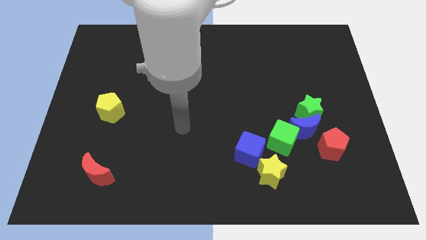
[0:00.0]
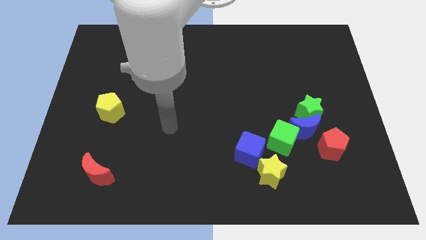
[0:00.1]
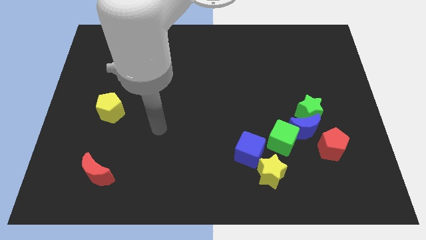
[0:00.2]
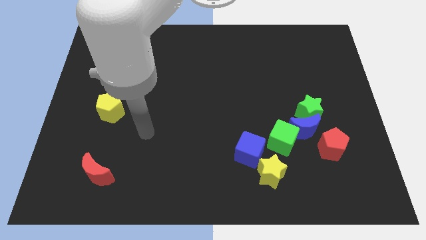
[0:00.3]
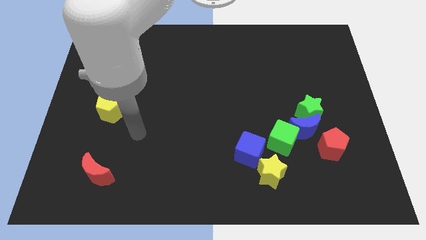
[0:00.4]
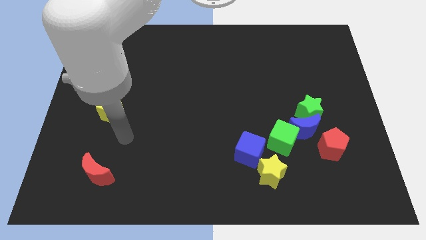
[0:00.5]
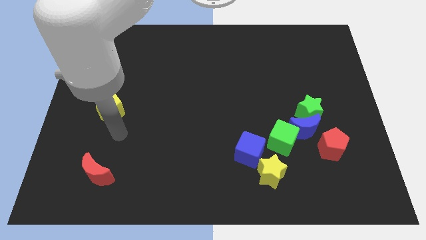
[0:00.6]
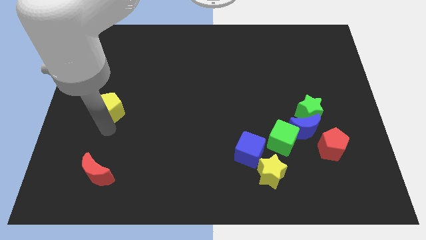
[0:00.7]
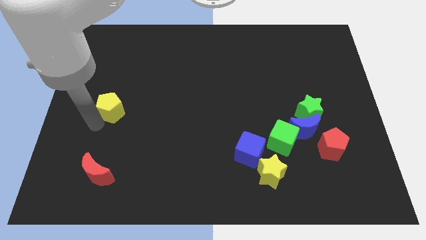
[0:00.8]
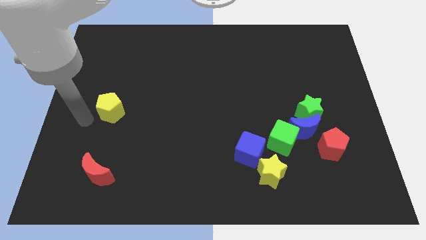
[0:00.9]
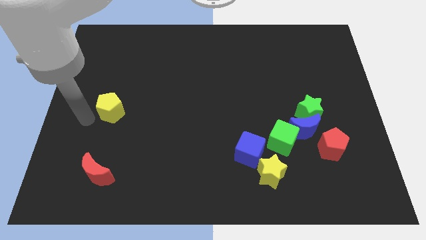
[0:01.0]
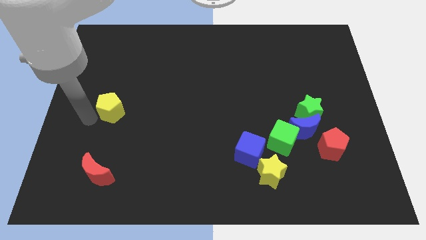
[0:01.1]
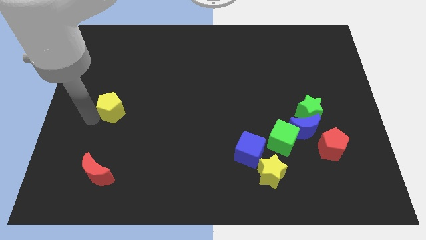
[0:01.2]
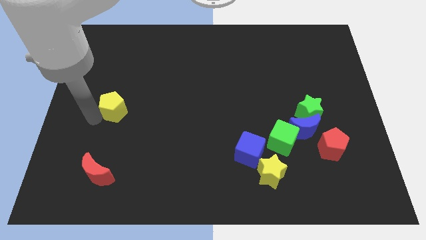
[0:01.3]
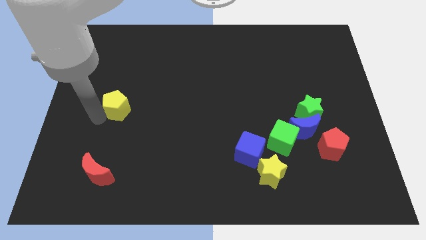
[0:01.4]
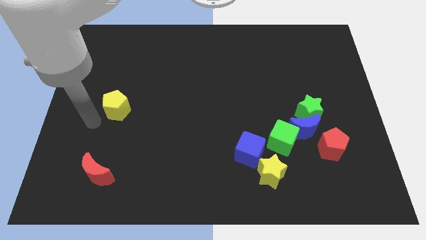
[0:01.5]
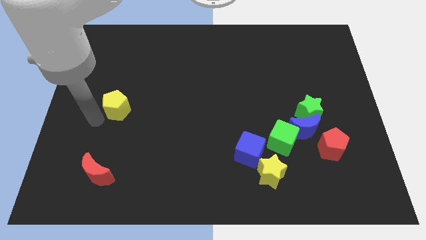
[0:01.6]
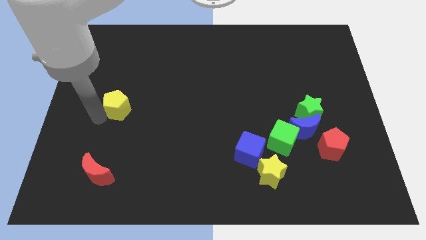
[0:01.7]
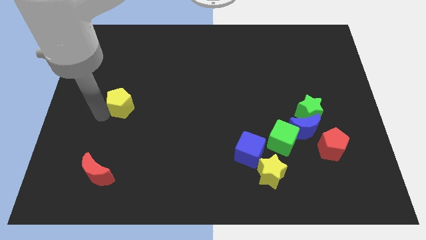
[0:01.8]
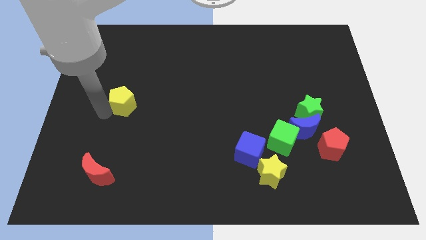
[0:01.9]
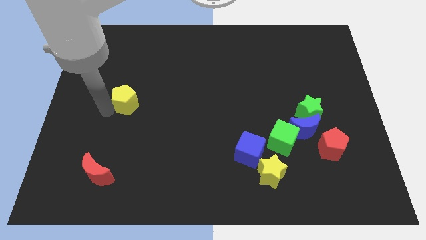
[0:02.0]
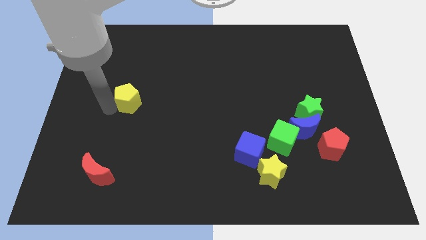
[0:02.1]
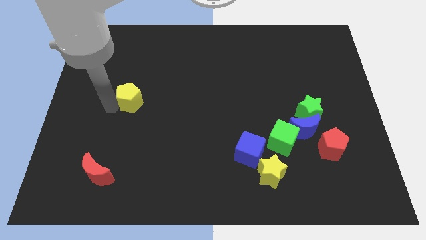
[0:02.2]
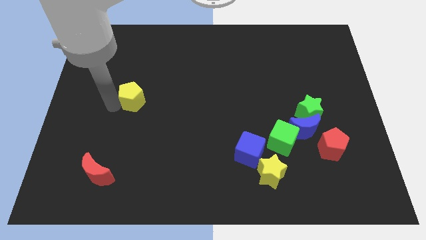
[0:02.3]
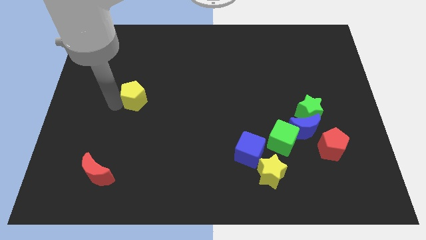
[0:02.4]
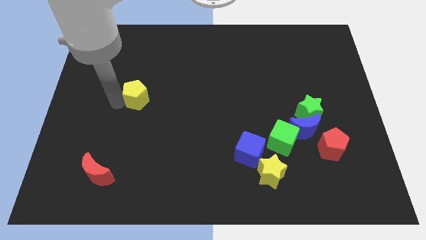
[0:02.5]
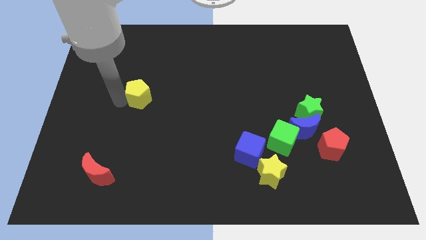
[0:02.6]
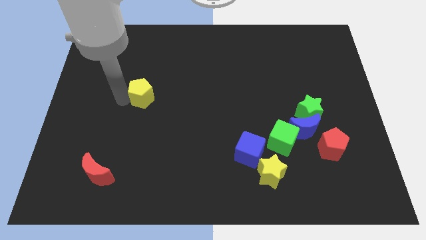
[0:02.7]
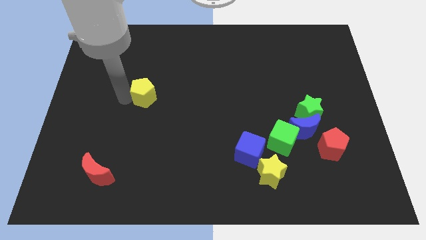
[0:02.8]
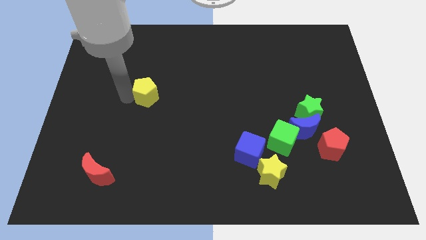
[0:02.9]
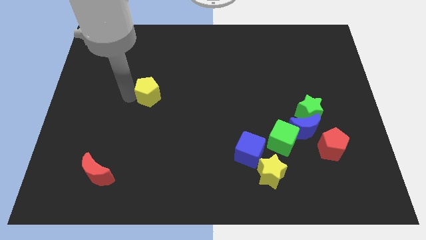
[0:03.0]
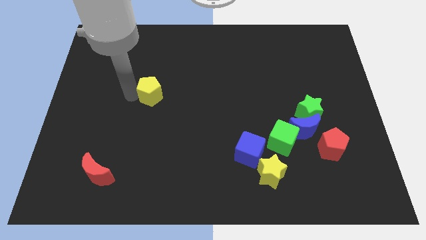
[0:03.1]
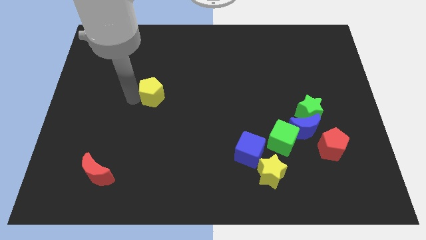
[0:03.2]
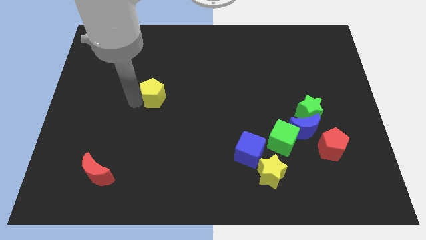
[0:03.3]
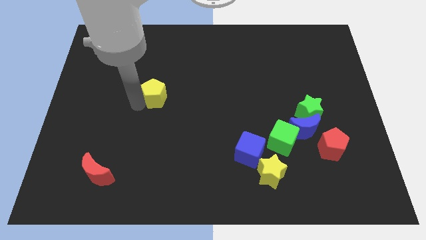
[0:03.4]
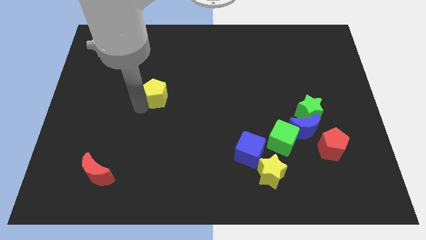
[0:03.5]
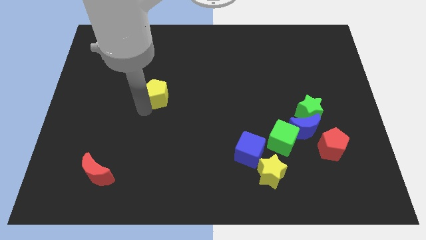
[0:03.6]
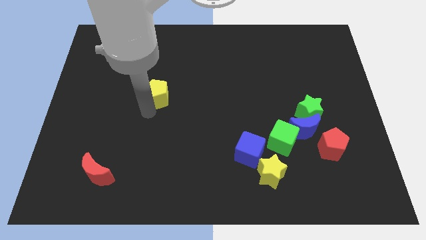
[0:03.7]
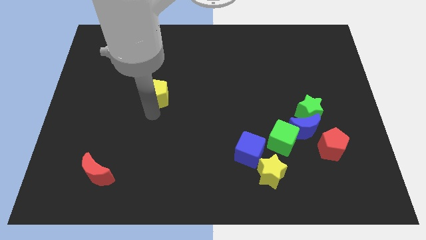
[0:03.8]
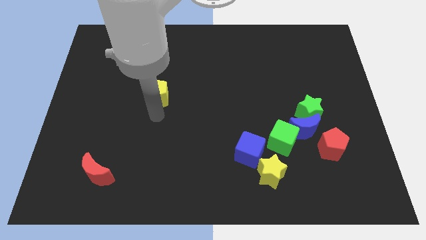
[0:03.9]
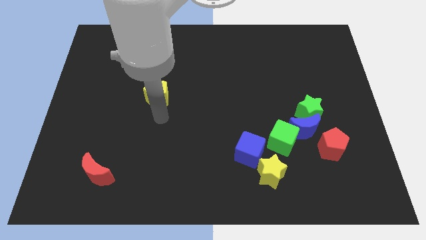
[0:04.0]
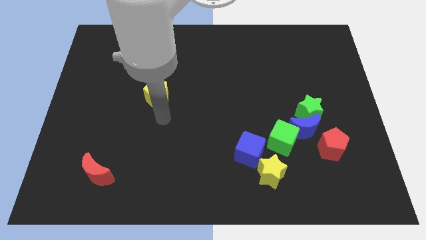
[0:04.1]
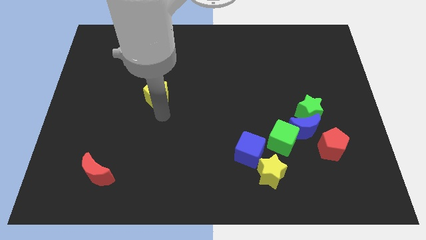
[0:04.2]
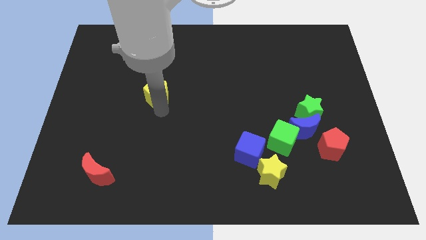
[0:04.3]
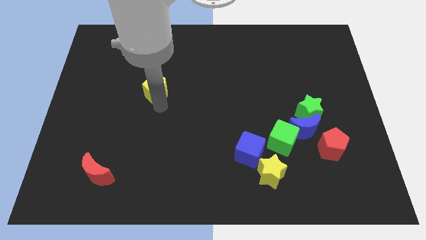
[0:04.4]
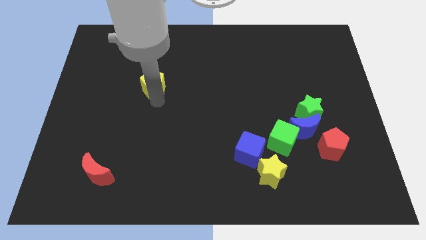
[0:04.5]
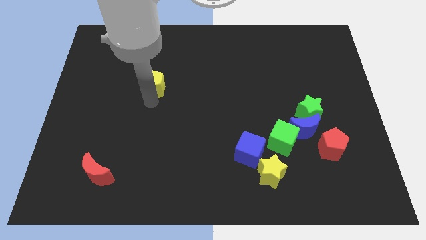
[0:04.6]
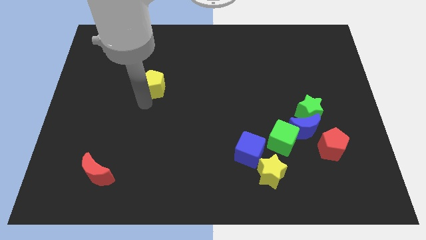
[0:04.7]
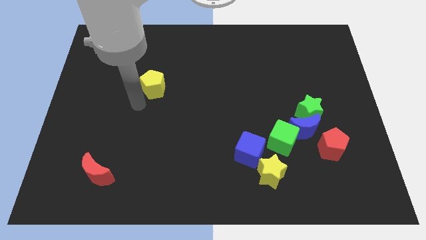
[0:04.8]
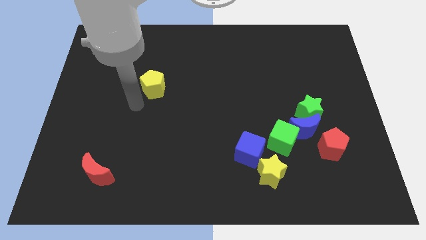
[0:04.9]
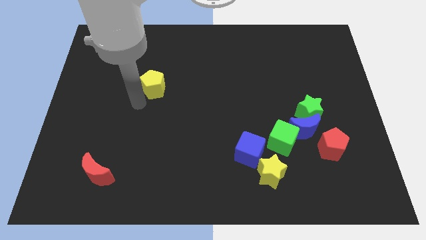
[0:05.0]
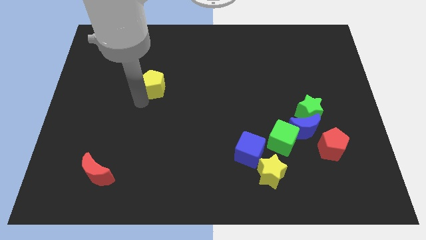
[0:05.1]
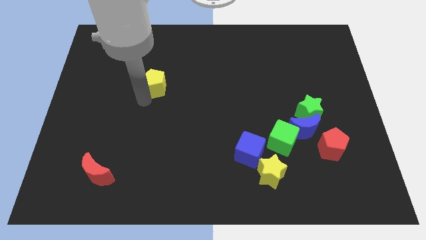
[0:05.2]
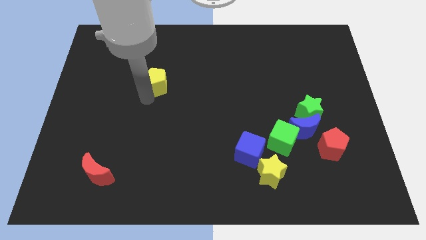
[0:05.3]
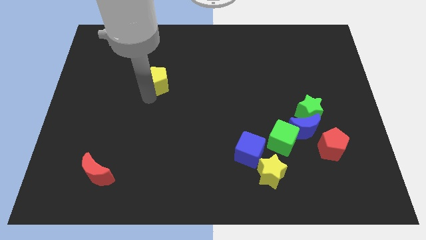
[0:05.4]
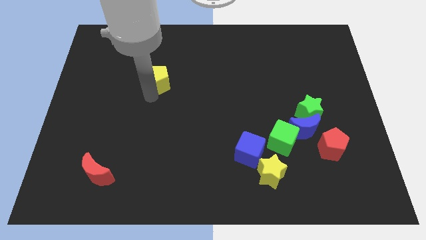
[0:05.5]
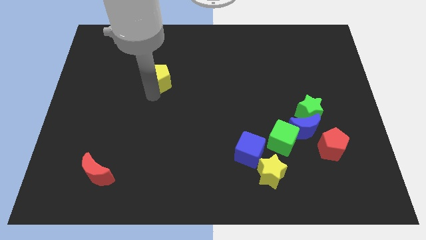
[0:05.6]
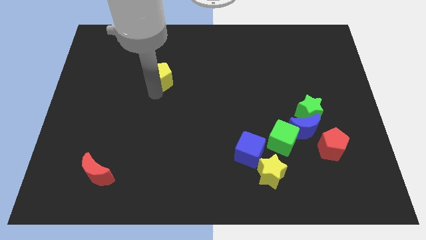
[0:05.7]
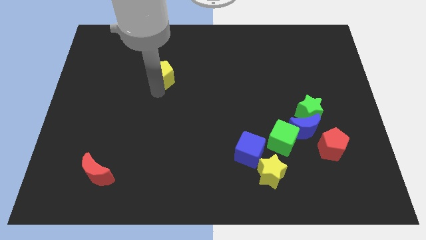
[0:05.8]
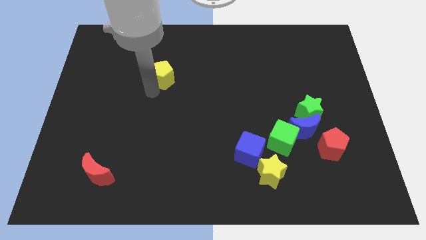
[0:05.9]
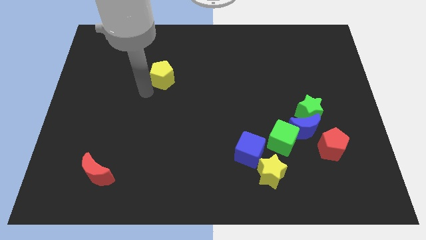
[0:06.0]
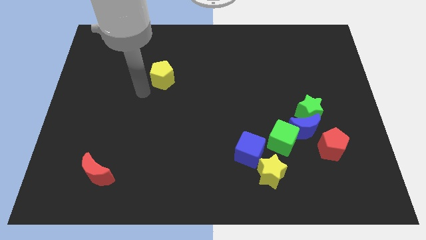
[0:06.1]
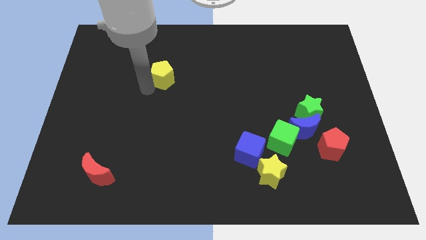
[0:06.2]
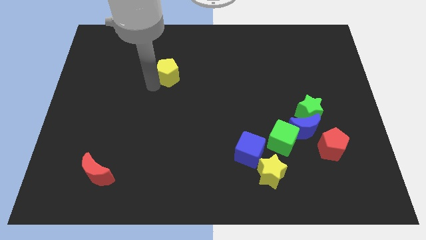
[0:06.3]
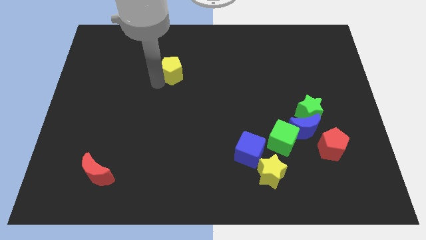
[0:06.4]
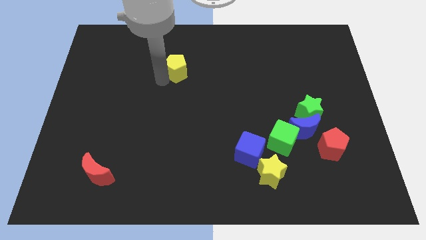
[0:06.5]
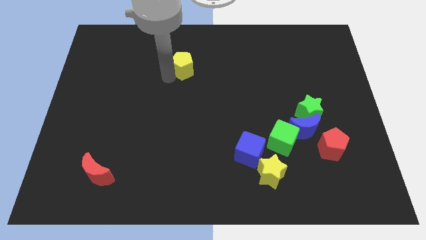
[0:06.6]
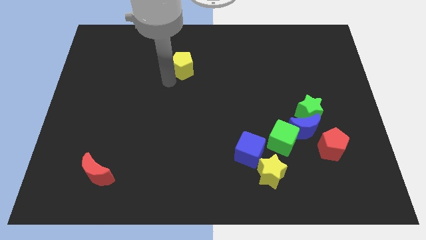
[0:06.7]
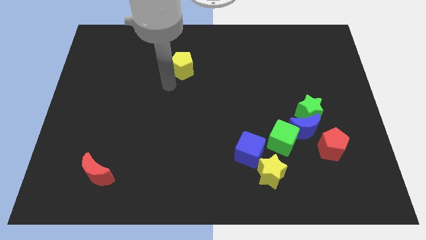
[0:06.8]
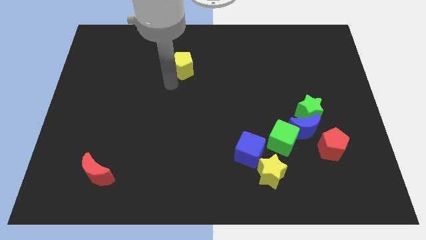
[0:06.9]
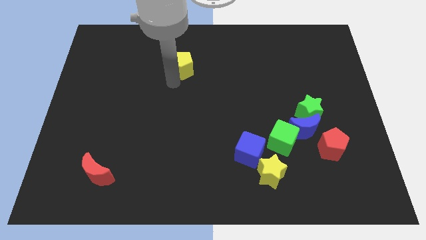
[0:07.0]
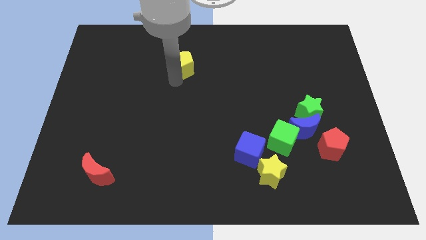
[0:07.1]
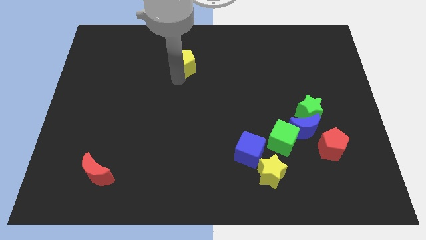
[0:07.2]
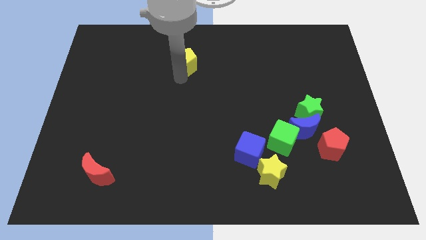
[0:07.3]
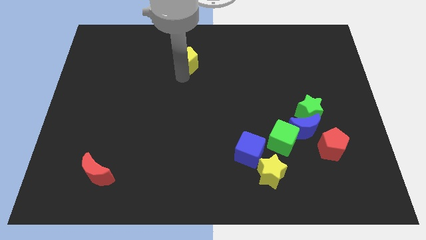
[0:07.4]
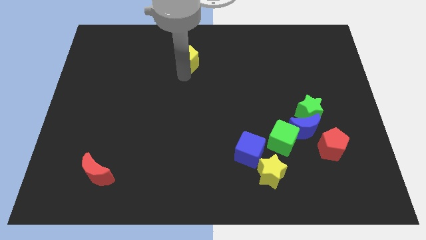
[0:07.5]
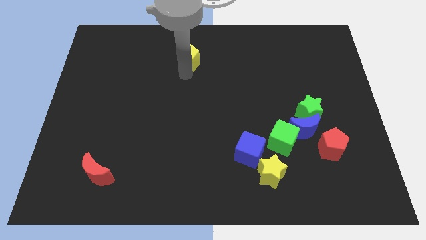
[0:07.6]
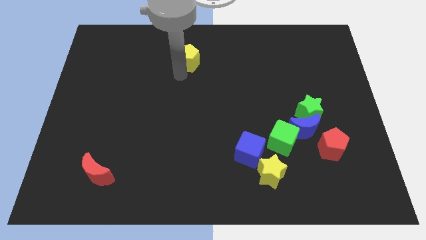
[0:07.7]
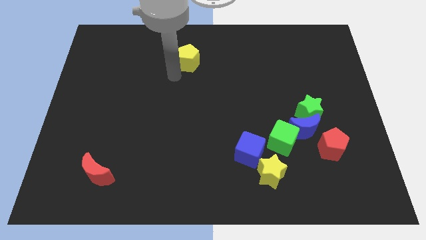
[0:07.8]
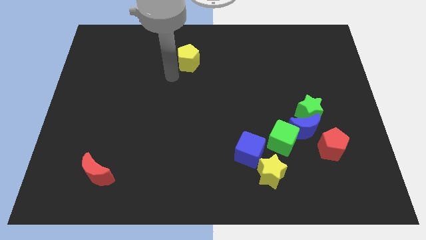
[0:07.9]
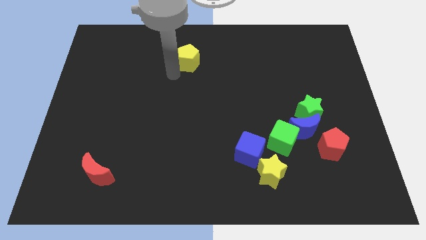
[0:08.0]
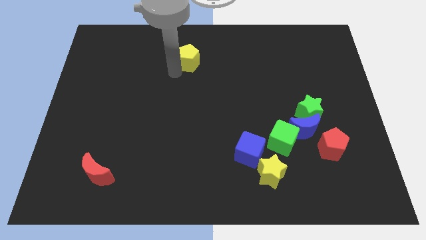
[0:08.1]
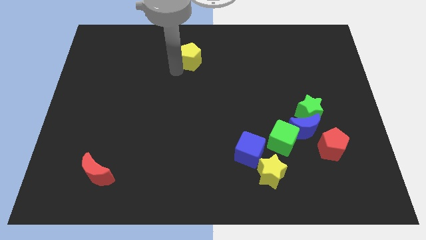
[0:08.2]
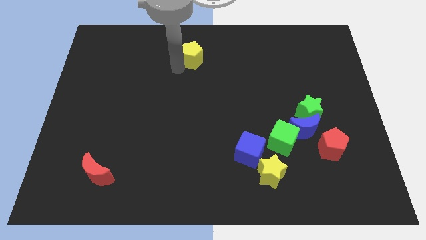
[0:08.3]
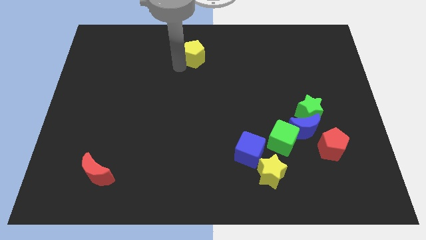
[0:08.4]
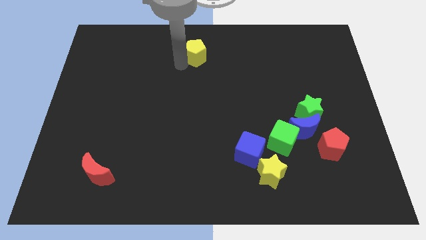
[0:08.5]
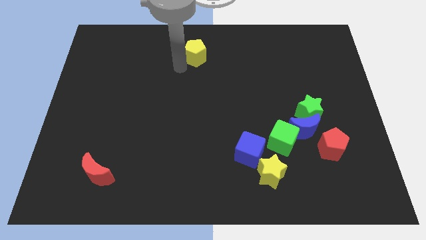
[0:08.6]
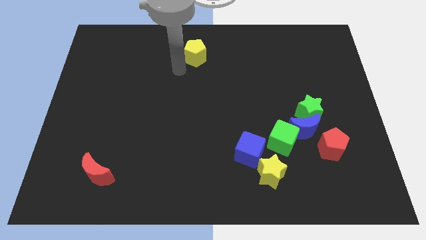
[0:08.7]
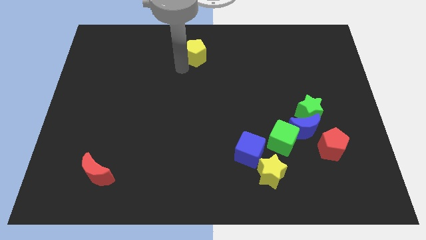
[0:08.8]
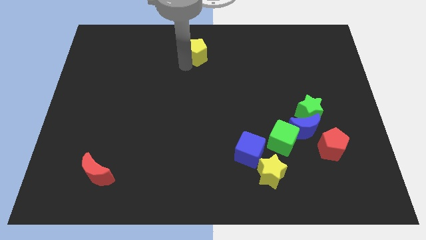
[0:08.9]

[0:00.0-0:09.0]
move the yellow pentagon to the top
